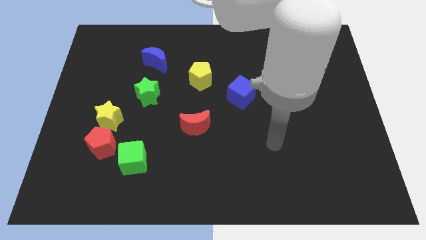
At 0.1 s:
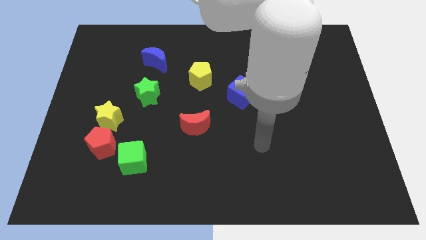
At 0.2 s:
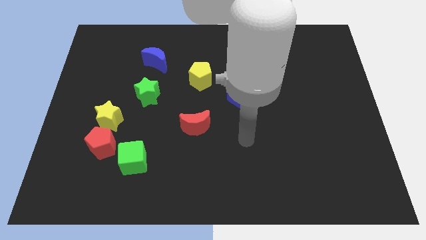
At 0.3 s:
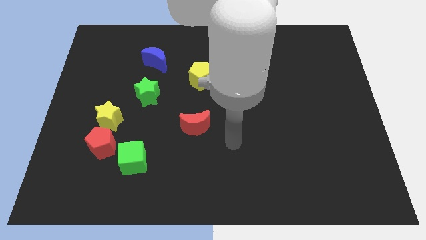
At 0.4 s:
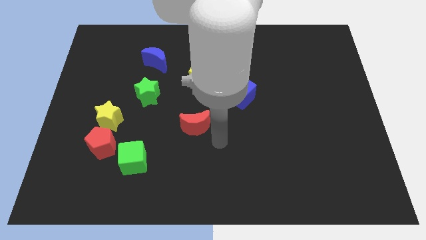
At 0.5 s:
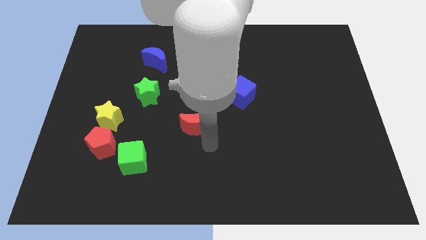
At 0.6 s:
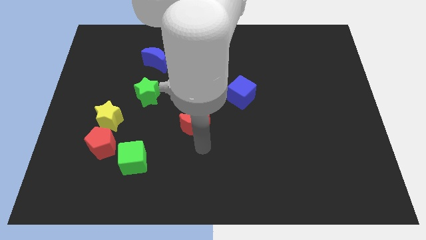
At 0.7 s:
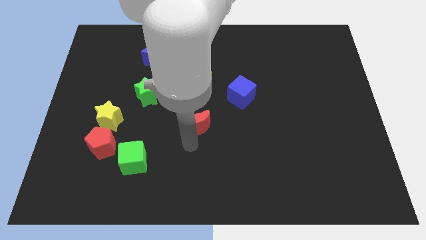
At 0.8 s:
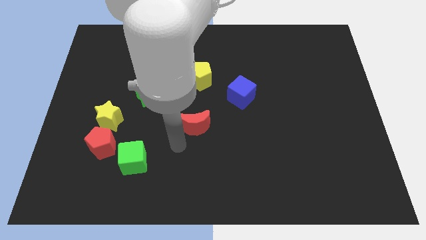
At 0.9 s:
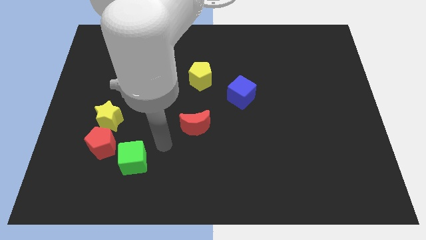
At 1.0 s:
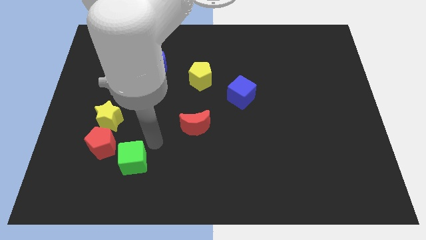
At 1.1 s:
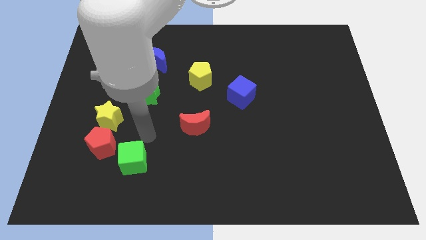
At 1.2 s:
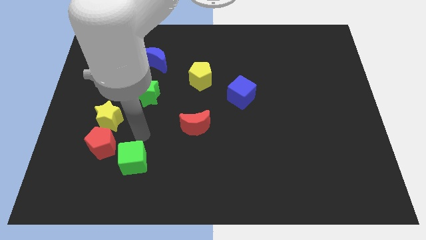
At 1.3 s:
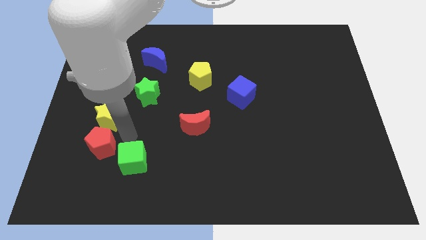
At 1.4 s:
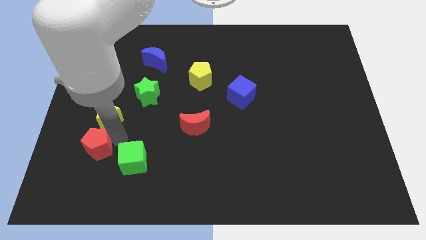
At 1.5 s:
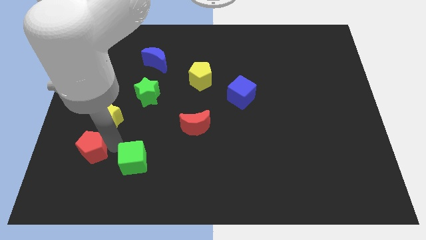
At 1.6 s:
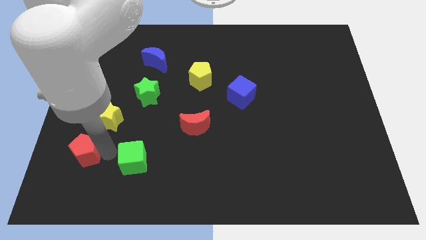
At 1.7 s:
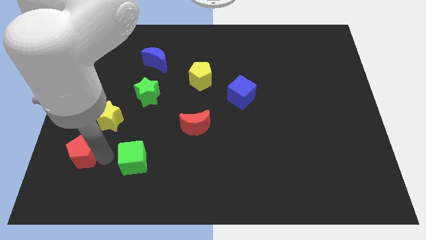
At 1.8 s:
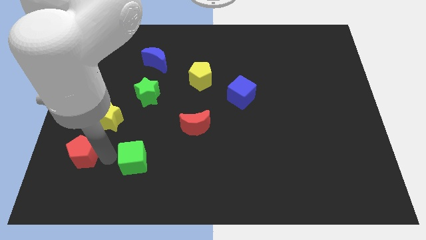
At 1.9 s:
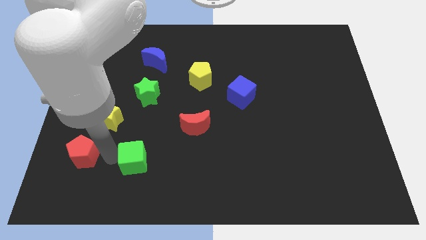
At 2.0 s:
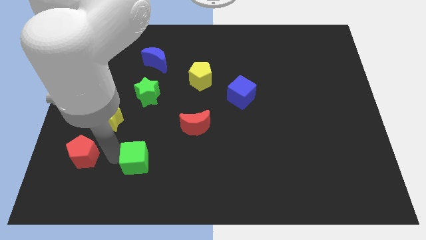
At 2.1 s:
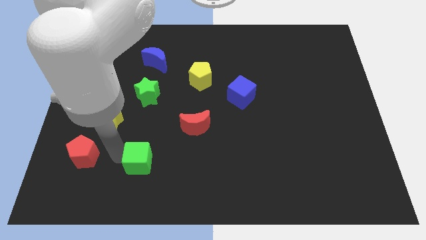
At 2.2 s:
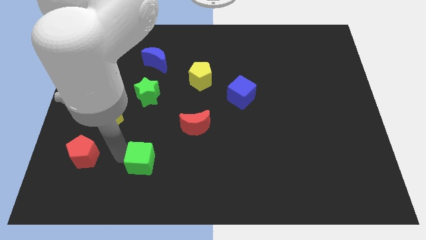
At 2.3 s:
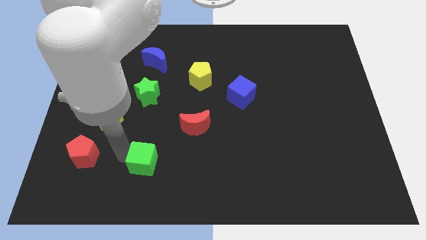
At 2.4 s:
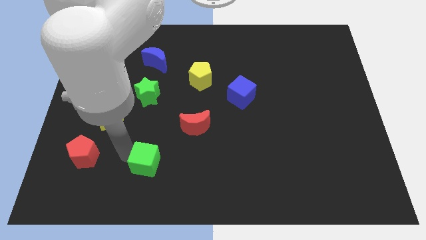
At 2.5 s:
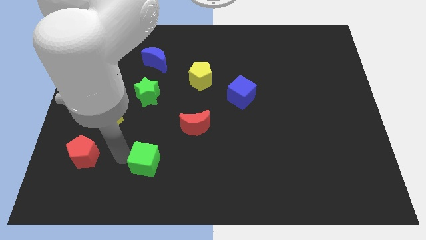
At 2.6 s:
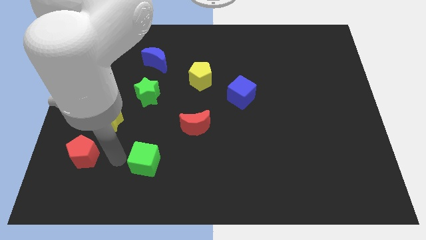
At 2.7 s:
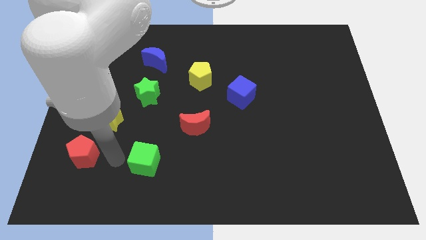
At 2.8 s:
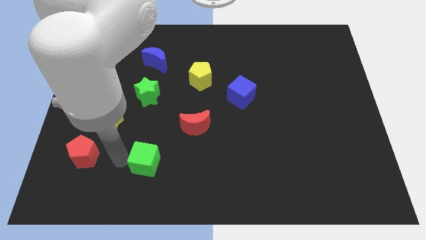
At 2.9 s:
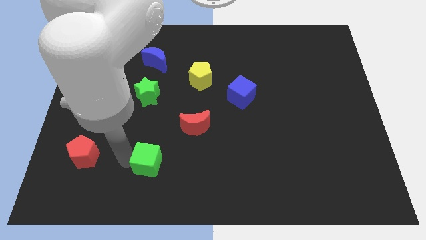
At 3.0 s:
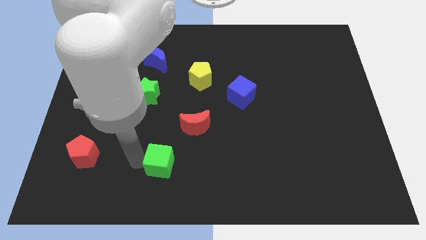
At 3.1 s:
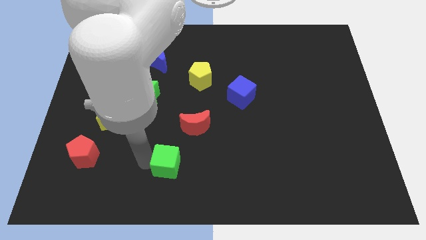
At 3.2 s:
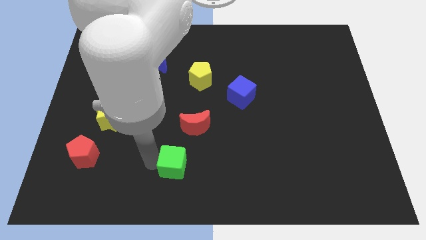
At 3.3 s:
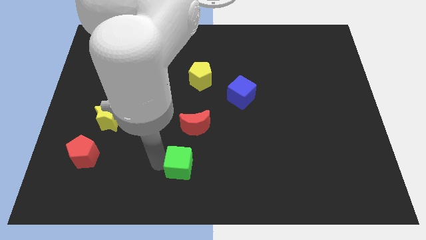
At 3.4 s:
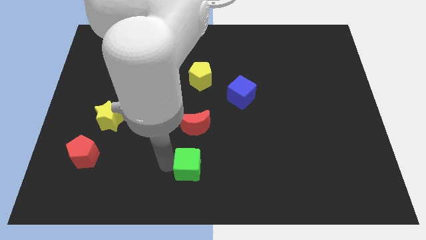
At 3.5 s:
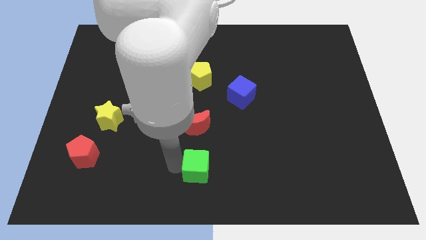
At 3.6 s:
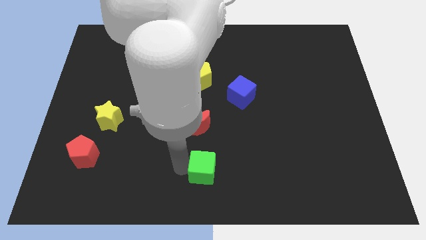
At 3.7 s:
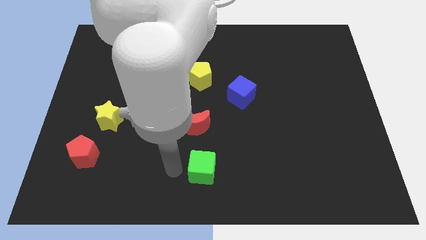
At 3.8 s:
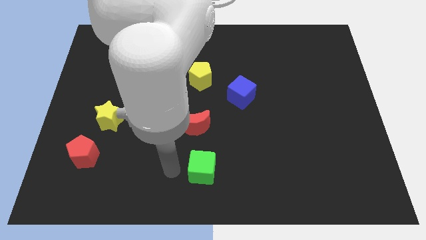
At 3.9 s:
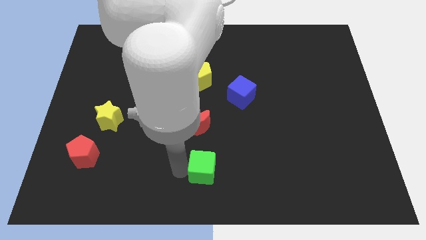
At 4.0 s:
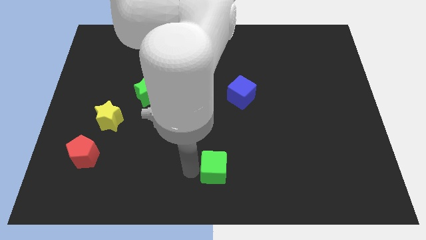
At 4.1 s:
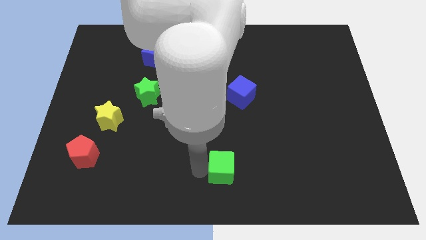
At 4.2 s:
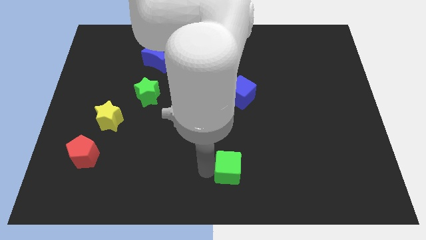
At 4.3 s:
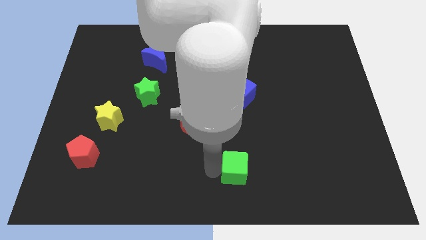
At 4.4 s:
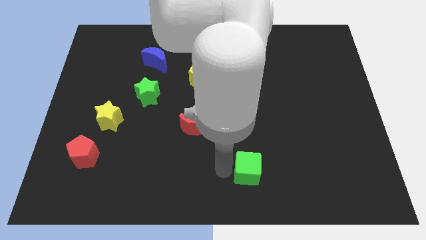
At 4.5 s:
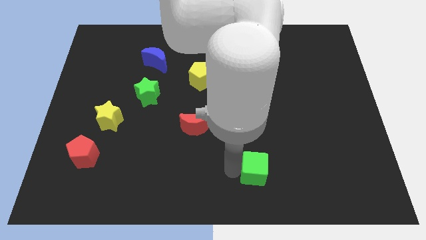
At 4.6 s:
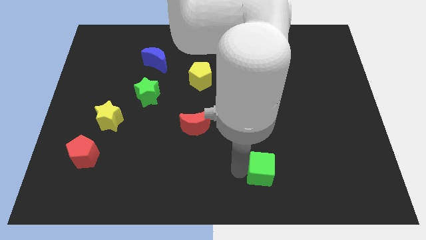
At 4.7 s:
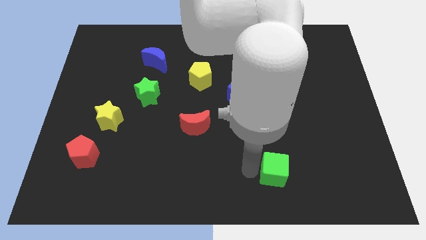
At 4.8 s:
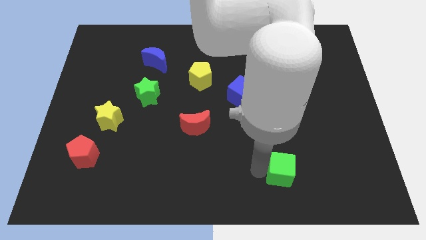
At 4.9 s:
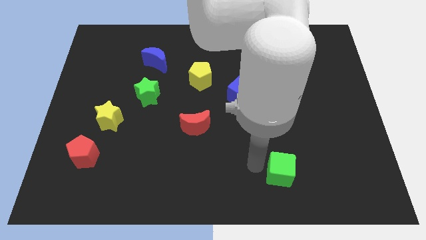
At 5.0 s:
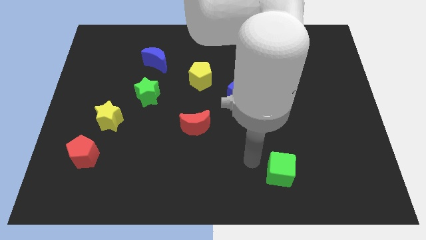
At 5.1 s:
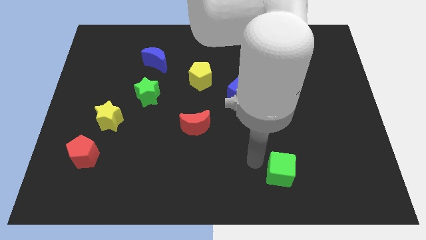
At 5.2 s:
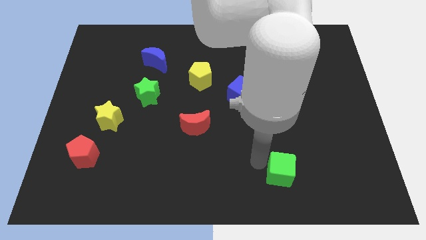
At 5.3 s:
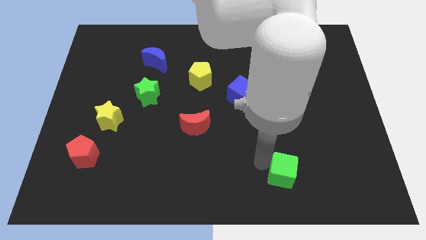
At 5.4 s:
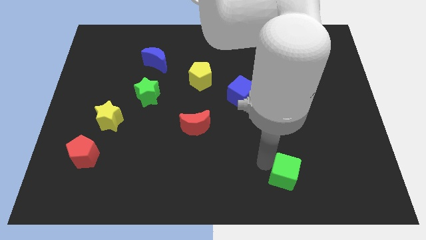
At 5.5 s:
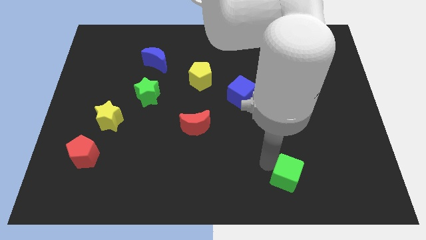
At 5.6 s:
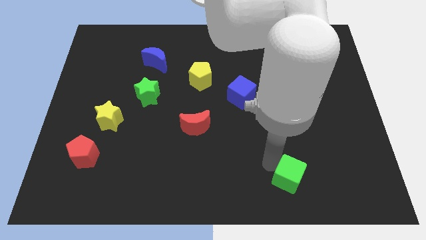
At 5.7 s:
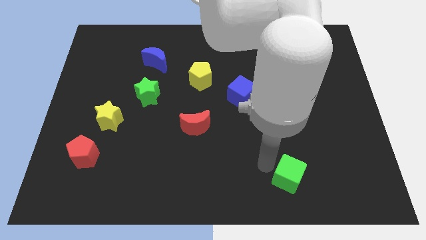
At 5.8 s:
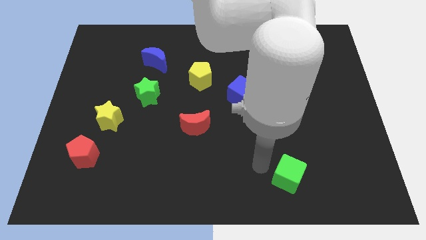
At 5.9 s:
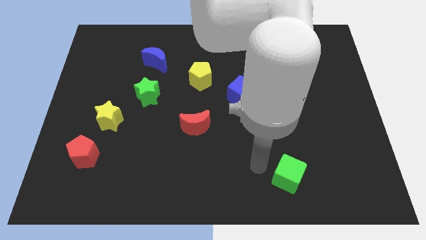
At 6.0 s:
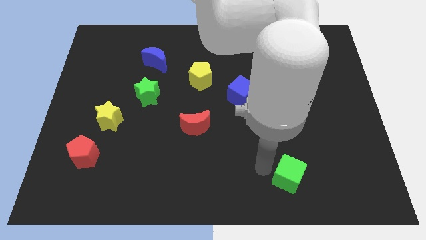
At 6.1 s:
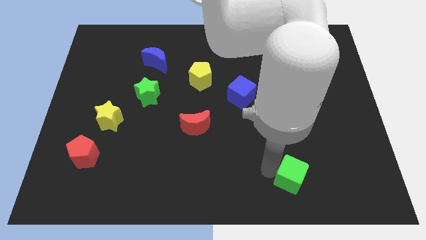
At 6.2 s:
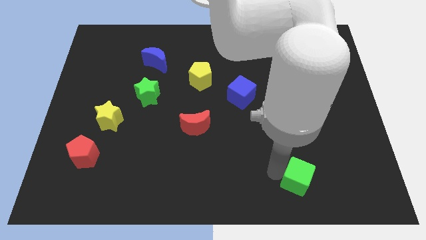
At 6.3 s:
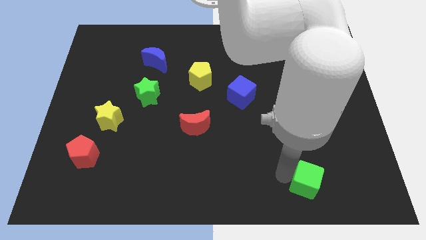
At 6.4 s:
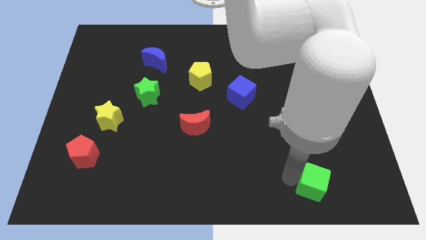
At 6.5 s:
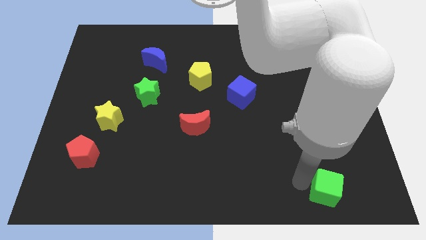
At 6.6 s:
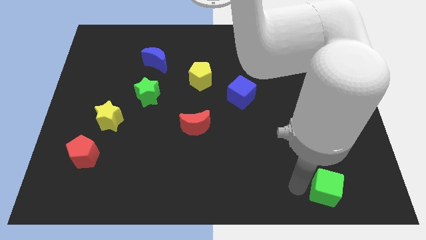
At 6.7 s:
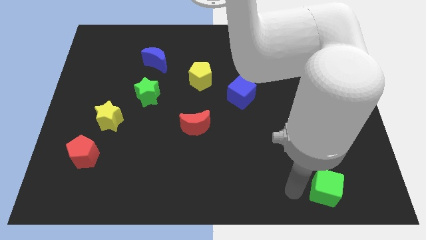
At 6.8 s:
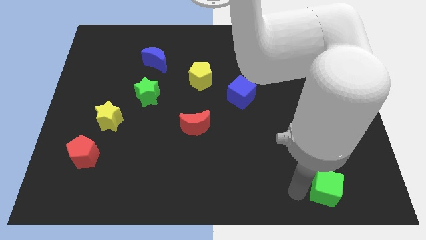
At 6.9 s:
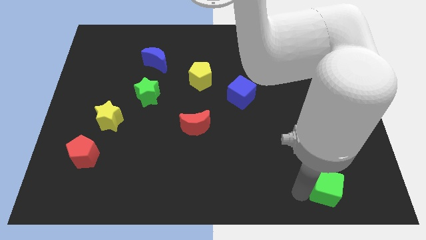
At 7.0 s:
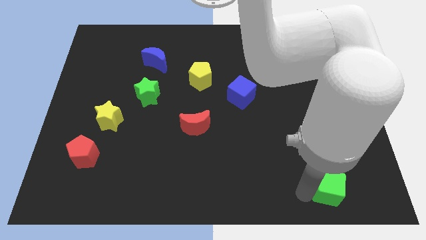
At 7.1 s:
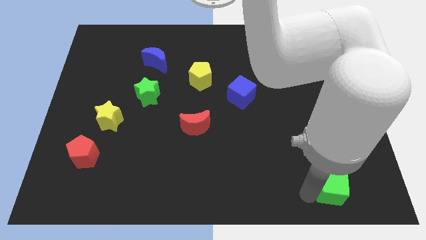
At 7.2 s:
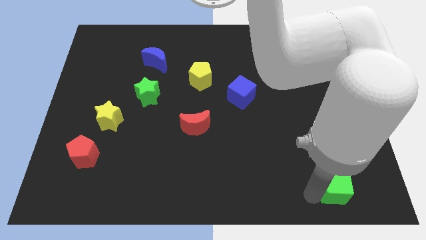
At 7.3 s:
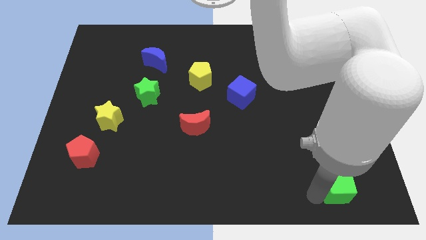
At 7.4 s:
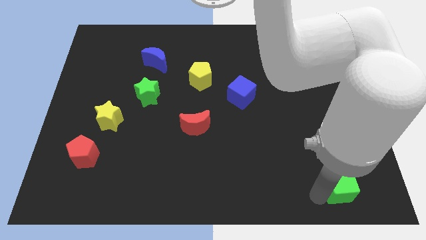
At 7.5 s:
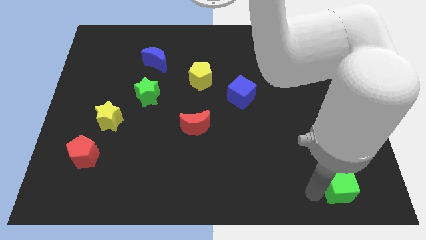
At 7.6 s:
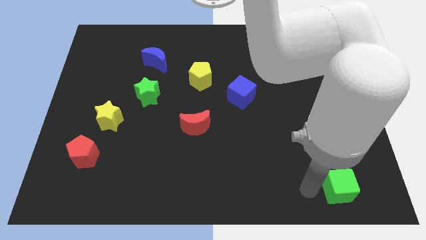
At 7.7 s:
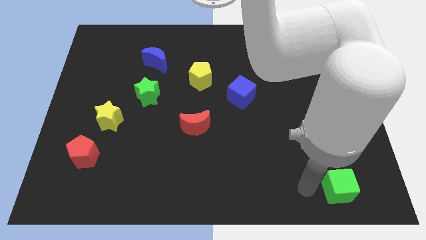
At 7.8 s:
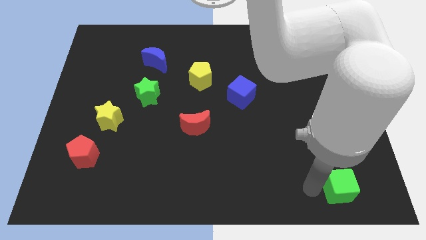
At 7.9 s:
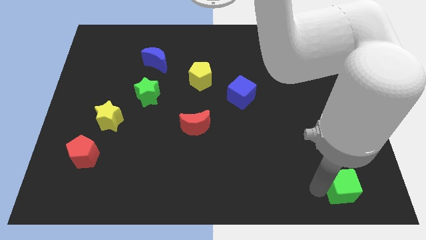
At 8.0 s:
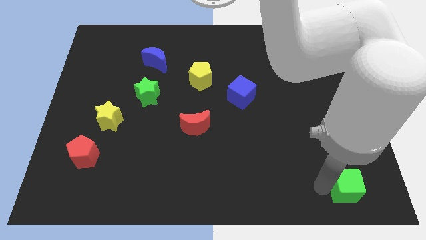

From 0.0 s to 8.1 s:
put the green cube to the bottom right of the board
